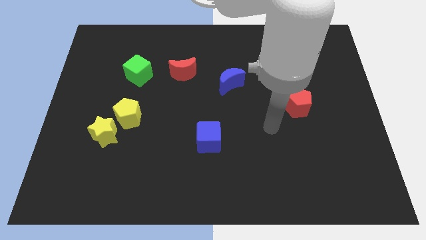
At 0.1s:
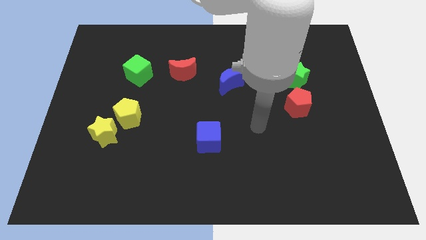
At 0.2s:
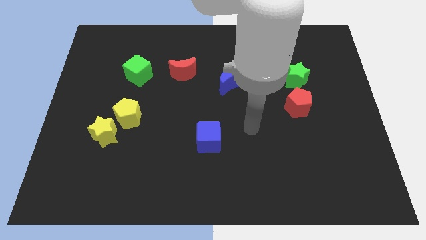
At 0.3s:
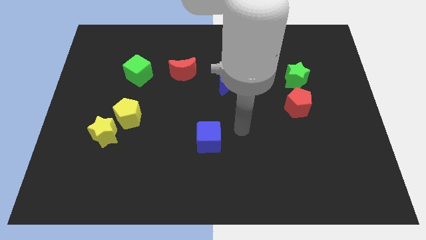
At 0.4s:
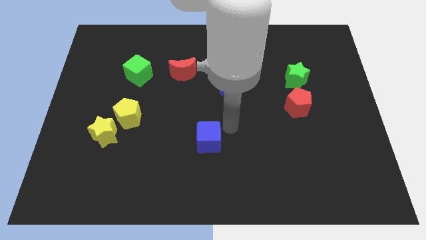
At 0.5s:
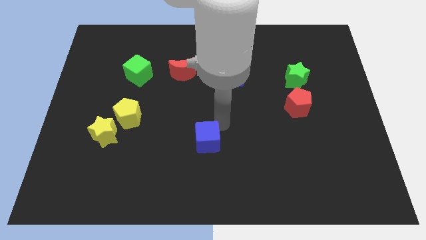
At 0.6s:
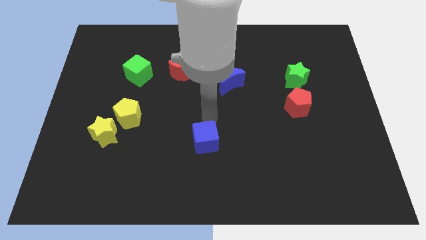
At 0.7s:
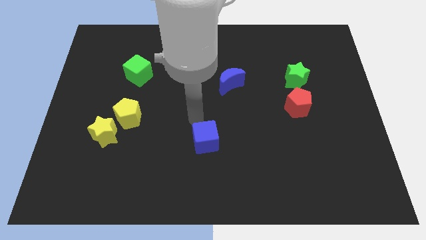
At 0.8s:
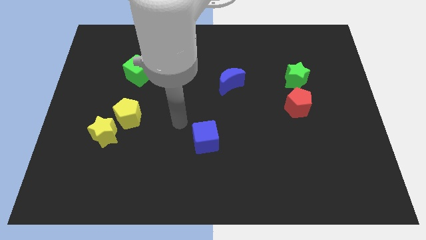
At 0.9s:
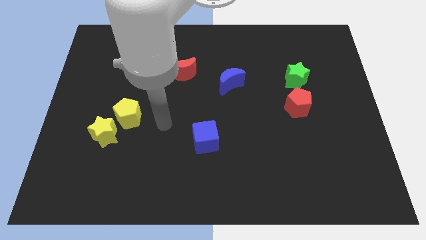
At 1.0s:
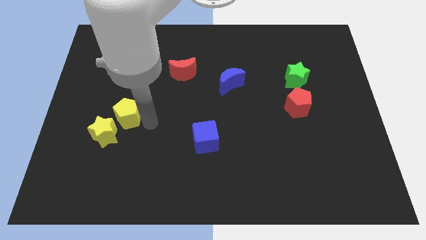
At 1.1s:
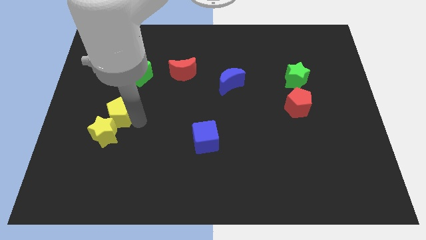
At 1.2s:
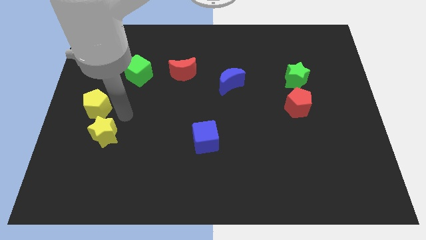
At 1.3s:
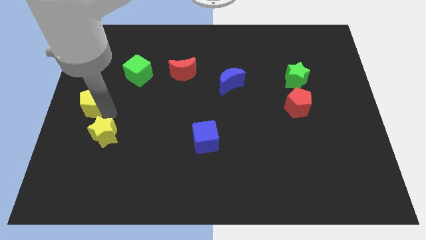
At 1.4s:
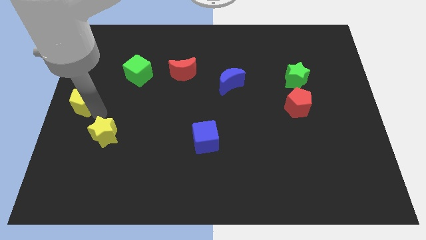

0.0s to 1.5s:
move the yellow star away from the yellow pentagon

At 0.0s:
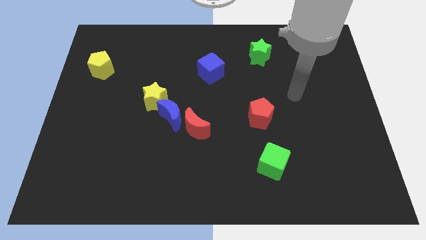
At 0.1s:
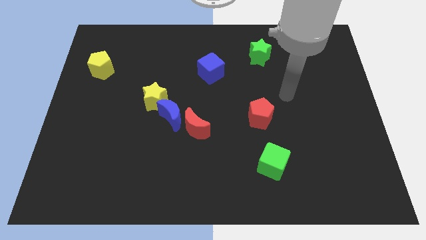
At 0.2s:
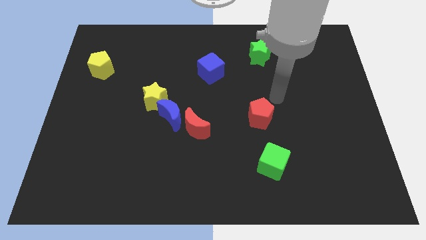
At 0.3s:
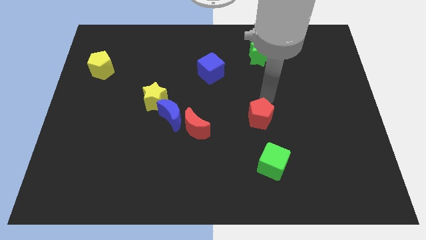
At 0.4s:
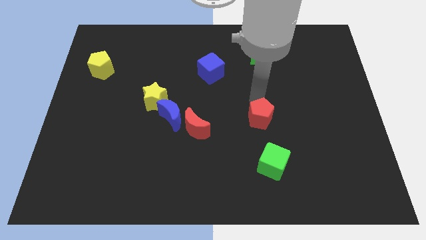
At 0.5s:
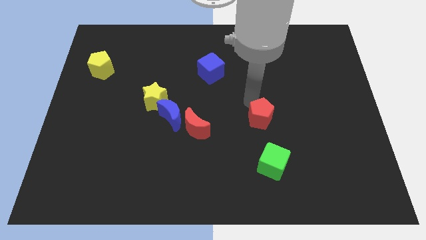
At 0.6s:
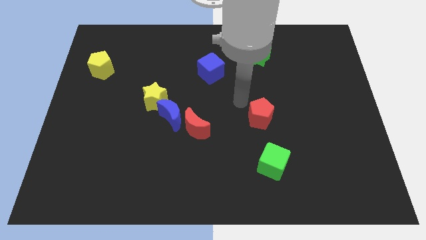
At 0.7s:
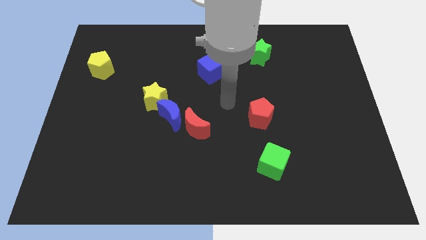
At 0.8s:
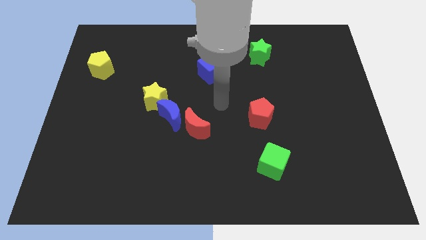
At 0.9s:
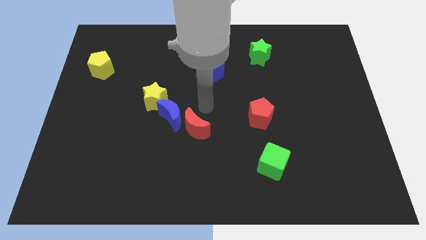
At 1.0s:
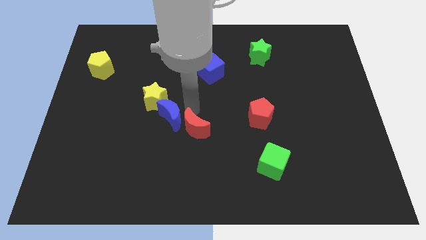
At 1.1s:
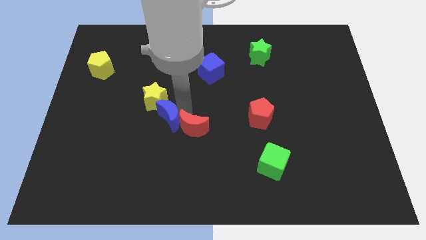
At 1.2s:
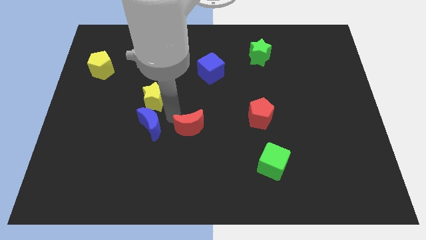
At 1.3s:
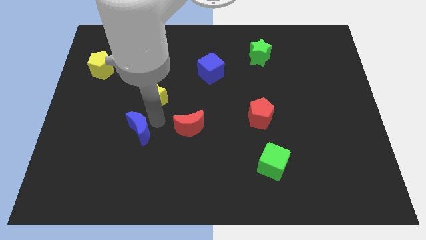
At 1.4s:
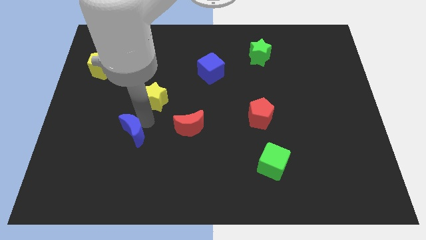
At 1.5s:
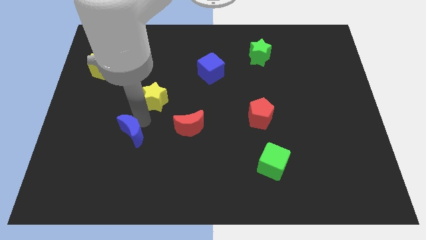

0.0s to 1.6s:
pull the yellow star apart from the blue moon

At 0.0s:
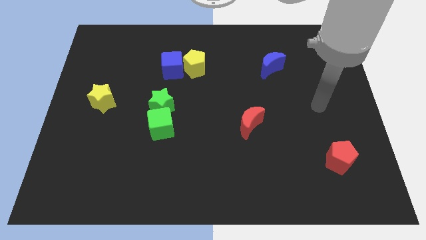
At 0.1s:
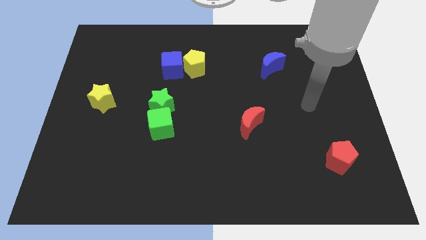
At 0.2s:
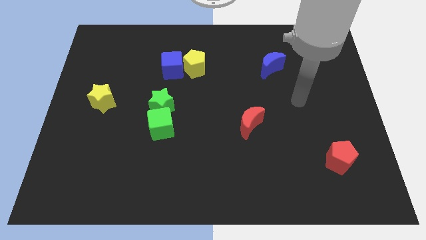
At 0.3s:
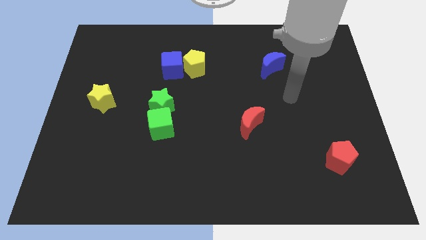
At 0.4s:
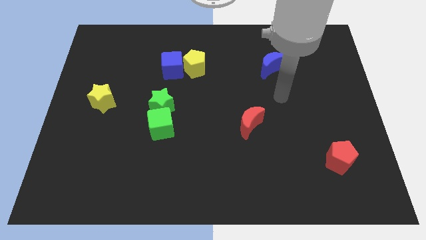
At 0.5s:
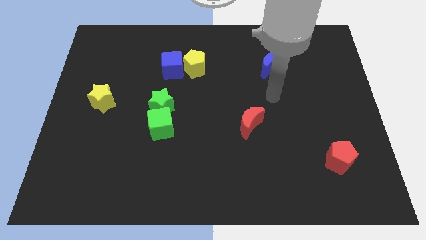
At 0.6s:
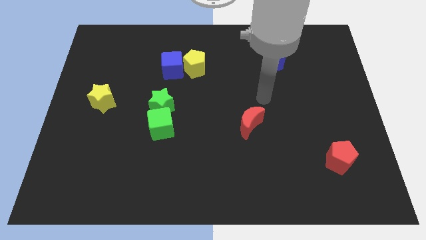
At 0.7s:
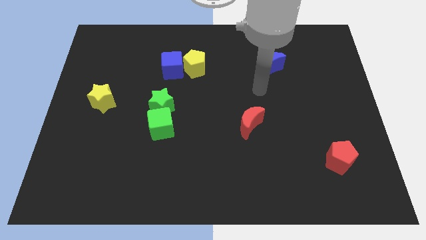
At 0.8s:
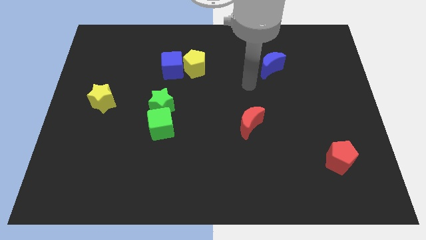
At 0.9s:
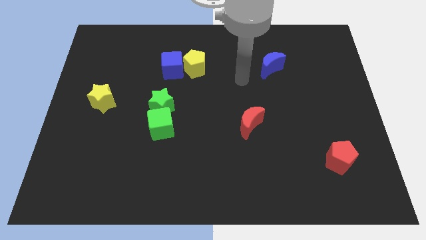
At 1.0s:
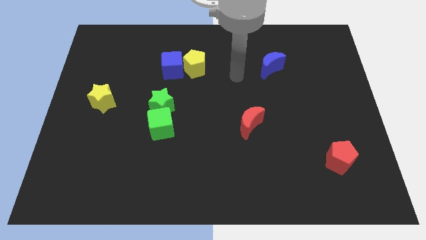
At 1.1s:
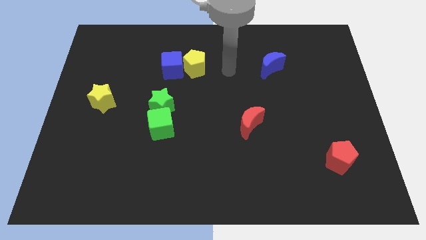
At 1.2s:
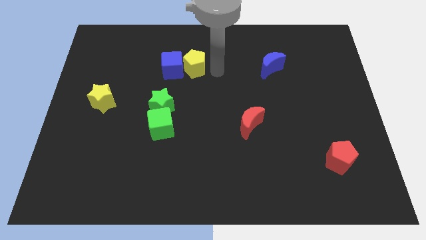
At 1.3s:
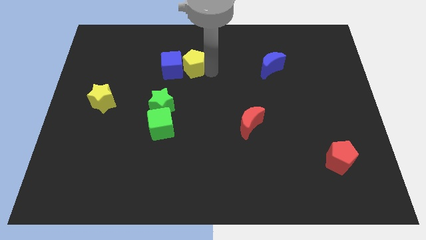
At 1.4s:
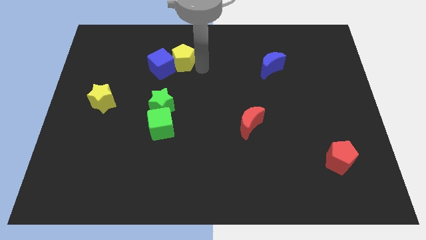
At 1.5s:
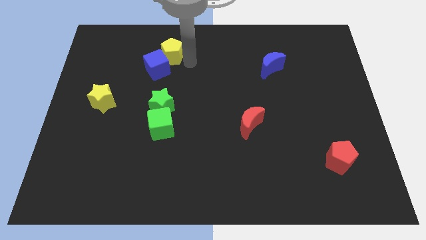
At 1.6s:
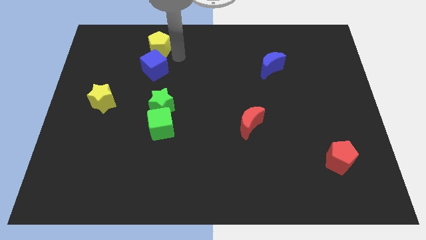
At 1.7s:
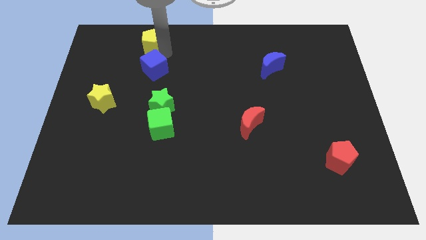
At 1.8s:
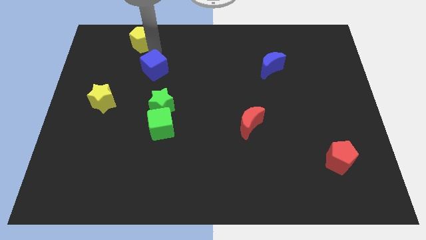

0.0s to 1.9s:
pull the blue cube apart from the yellow pentagon

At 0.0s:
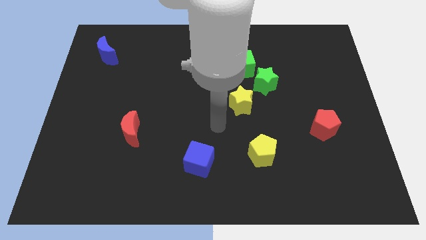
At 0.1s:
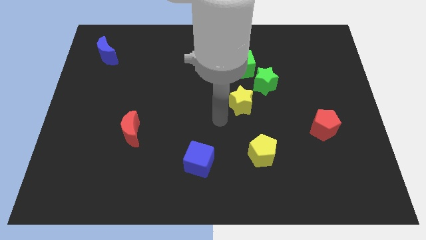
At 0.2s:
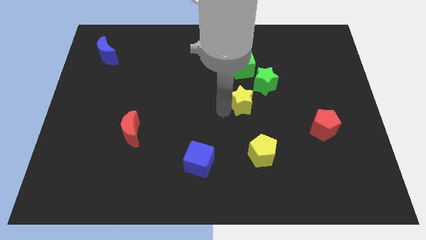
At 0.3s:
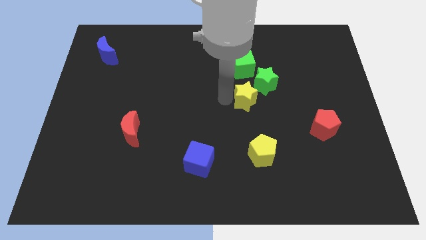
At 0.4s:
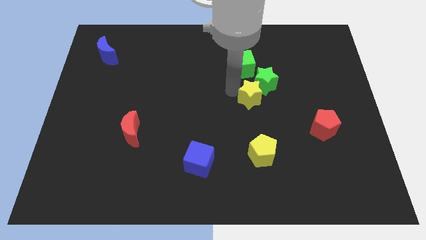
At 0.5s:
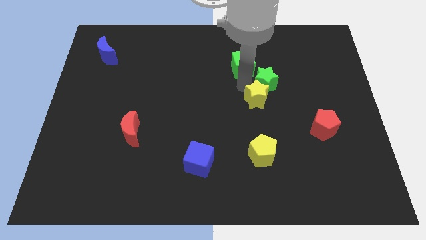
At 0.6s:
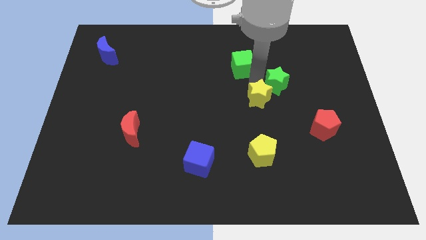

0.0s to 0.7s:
separate the green cube from the green star

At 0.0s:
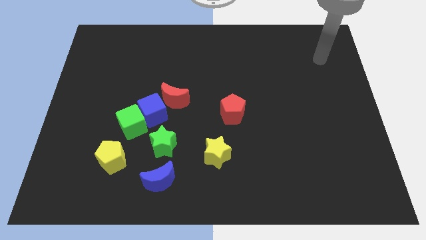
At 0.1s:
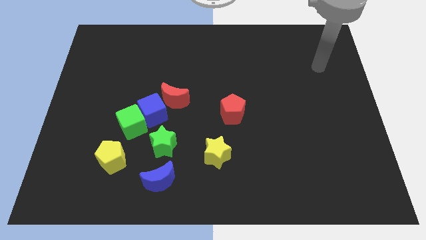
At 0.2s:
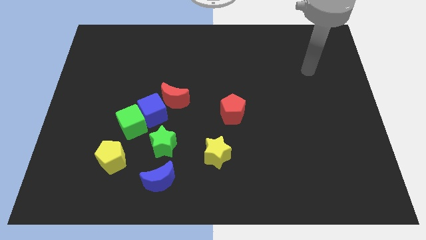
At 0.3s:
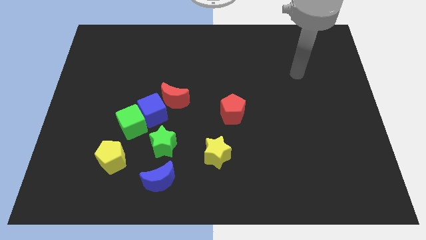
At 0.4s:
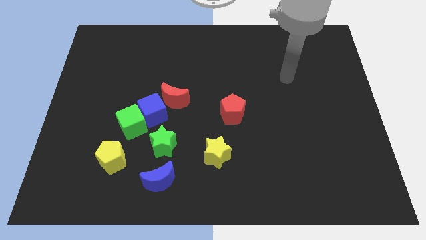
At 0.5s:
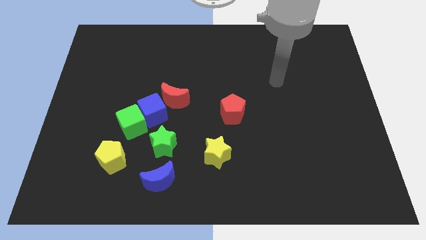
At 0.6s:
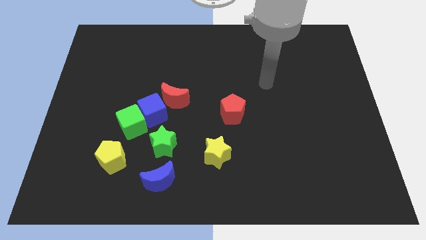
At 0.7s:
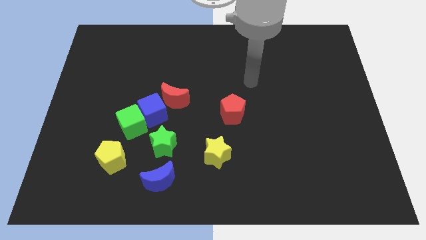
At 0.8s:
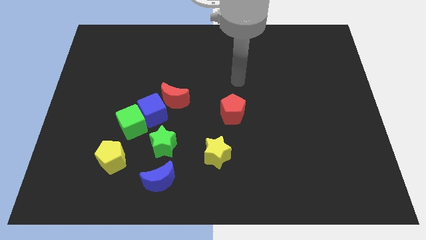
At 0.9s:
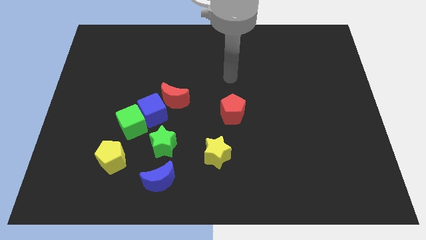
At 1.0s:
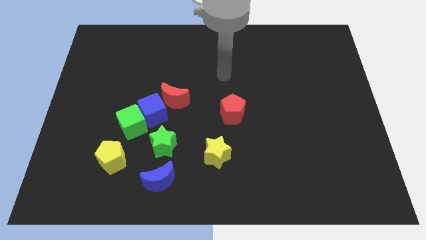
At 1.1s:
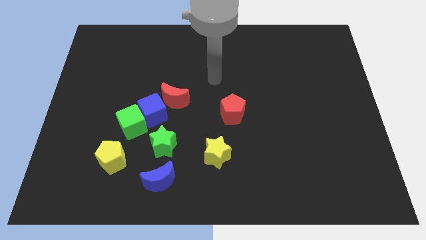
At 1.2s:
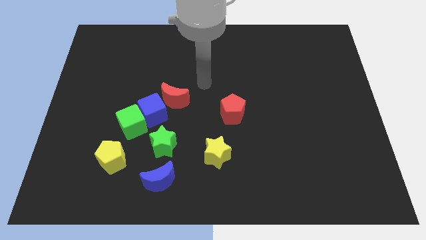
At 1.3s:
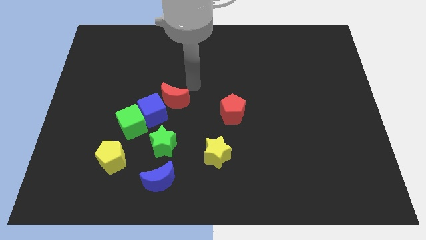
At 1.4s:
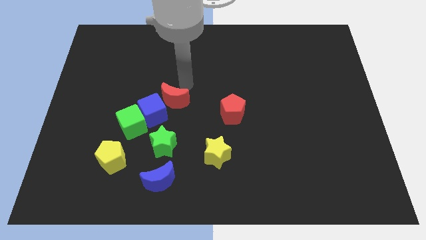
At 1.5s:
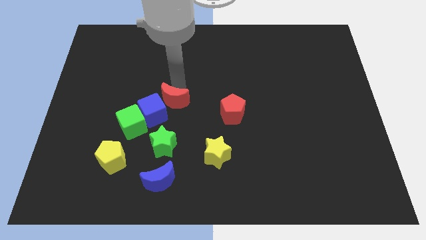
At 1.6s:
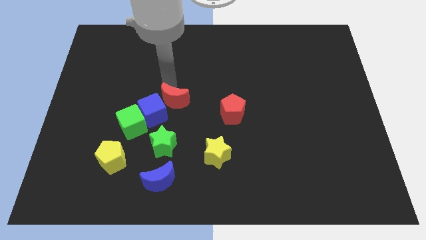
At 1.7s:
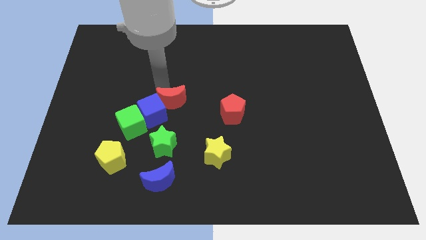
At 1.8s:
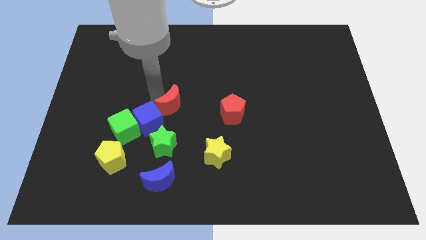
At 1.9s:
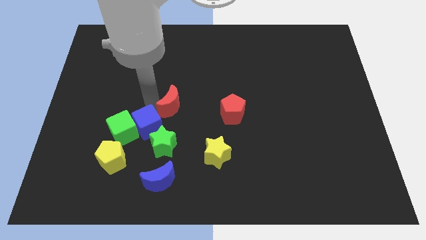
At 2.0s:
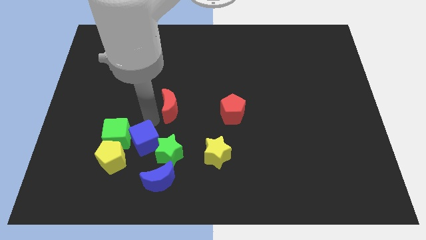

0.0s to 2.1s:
pull the red moon apart from the blue cube

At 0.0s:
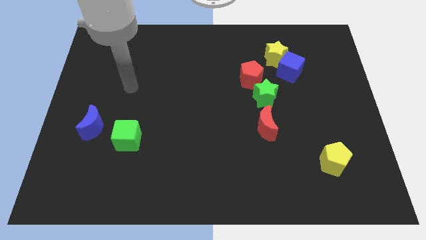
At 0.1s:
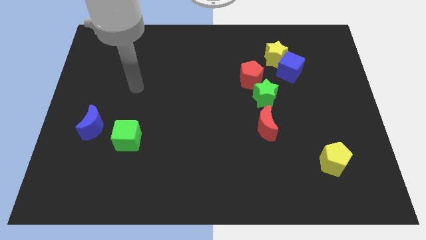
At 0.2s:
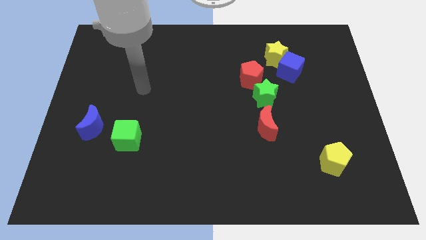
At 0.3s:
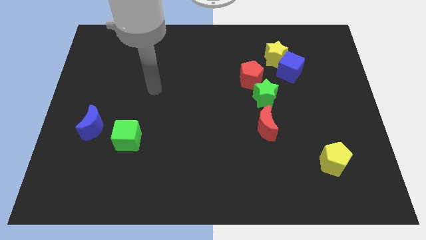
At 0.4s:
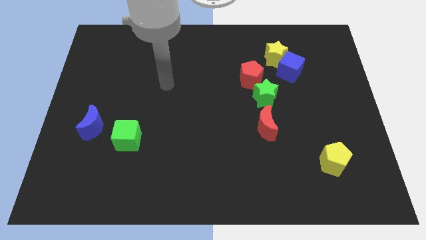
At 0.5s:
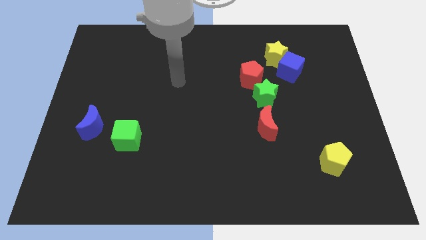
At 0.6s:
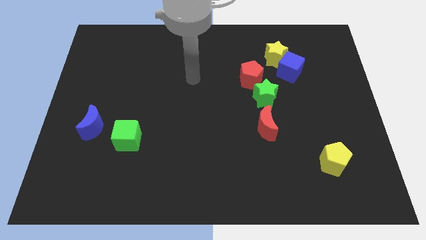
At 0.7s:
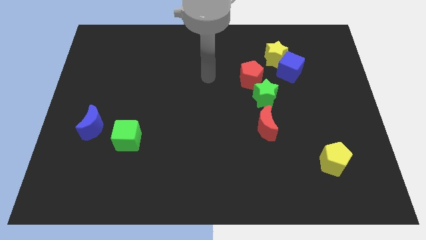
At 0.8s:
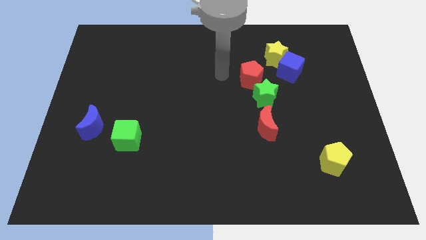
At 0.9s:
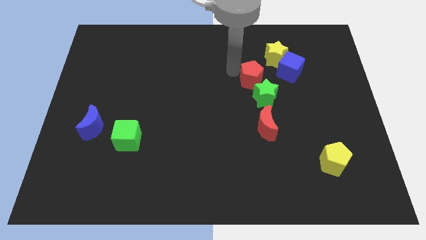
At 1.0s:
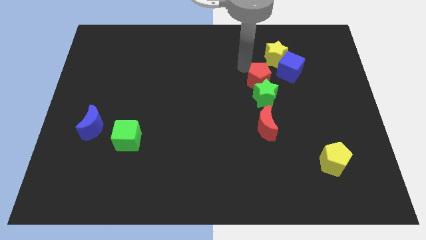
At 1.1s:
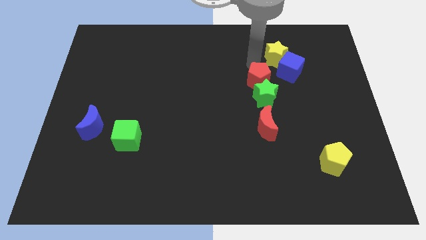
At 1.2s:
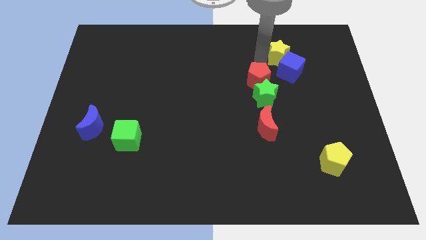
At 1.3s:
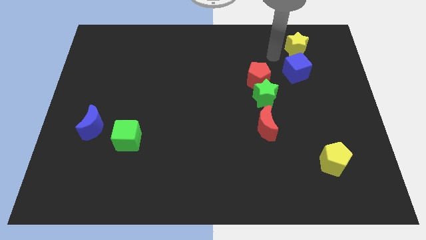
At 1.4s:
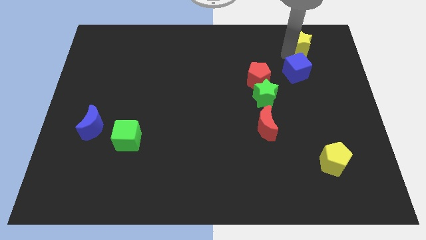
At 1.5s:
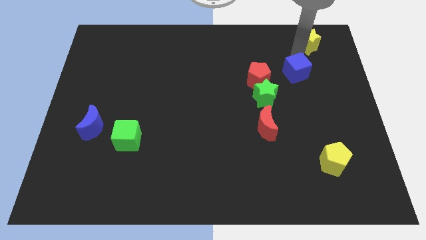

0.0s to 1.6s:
pull the blue cube apart from the yellow star
